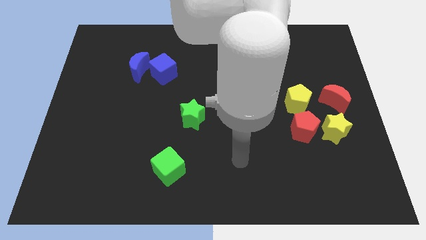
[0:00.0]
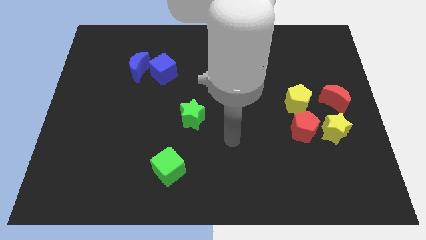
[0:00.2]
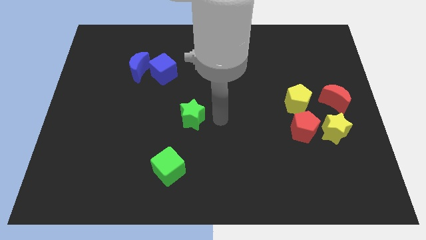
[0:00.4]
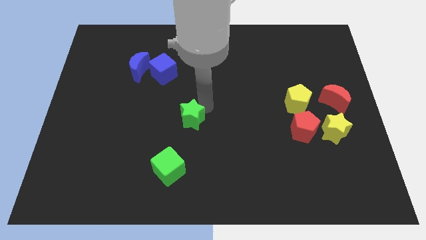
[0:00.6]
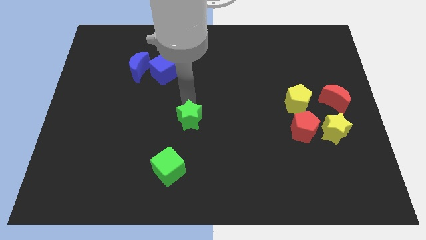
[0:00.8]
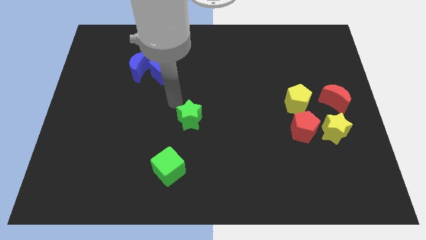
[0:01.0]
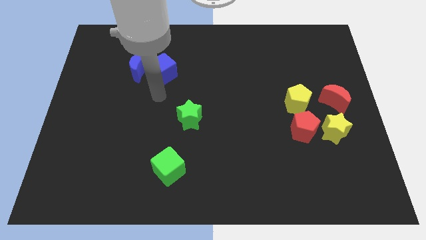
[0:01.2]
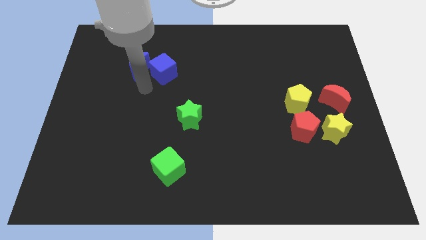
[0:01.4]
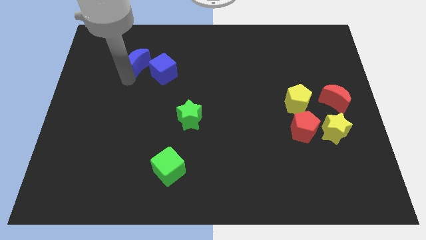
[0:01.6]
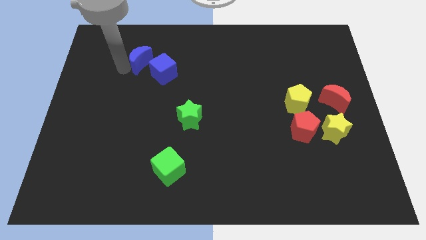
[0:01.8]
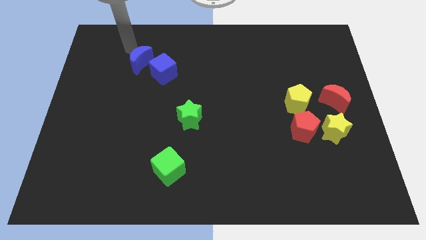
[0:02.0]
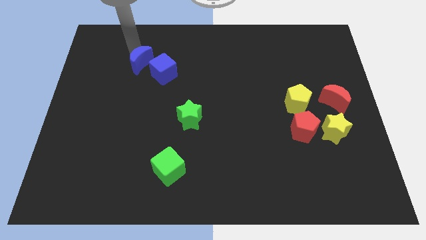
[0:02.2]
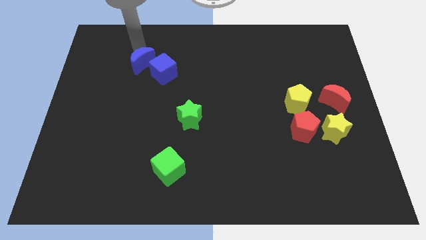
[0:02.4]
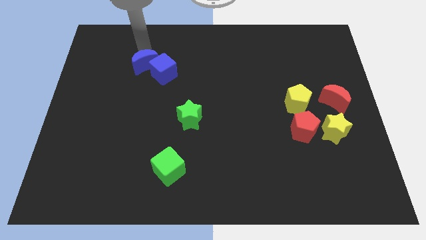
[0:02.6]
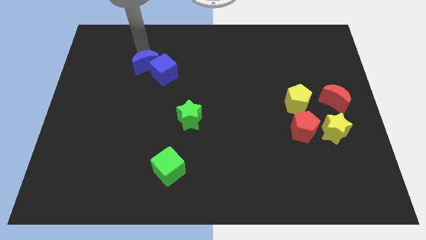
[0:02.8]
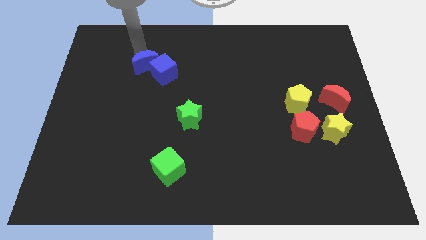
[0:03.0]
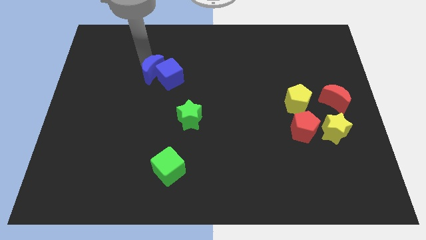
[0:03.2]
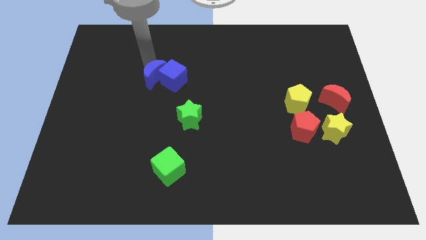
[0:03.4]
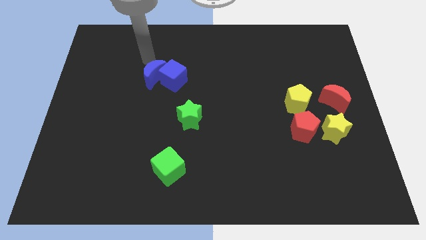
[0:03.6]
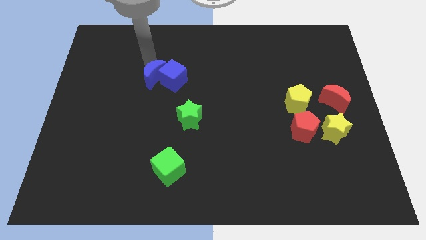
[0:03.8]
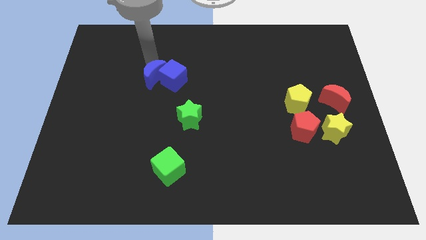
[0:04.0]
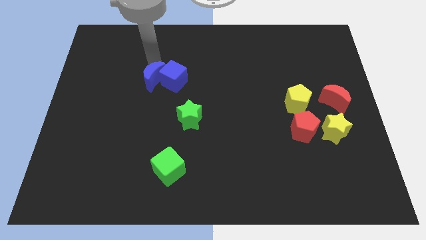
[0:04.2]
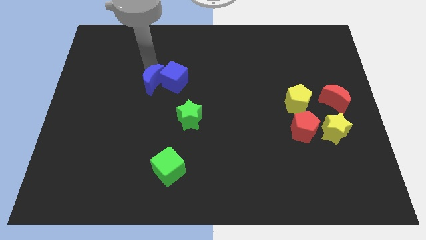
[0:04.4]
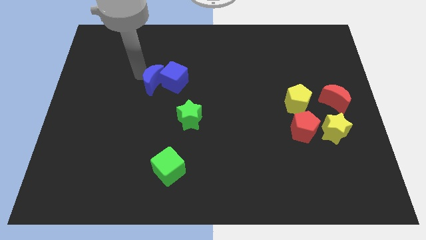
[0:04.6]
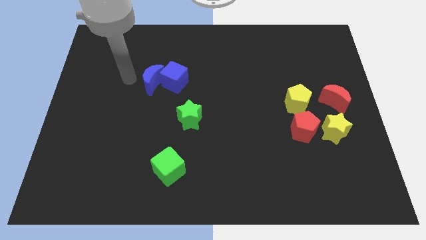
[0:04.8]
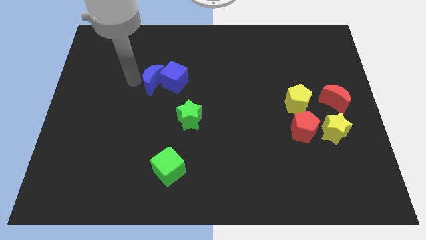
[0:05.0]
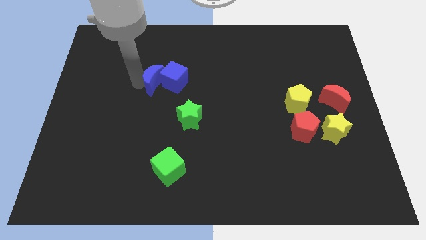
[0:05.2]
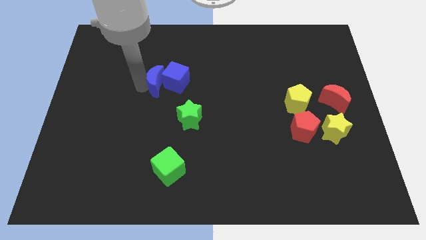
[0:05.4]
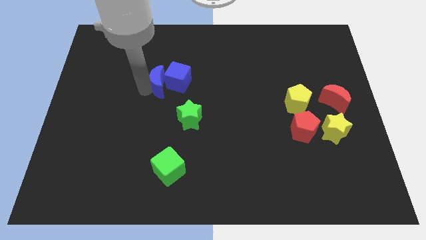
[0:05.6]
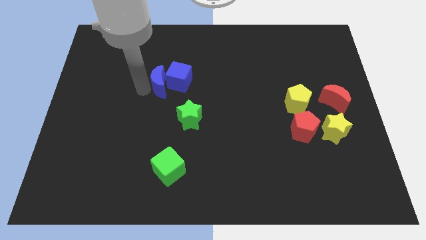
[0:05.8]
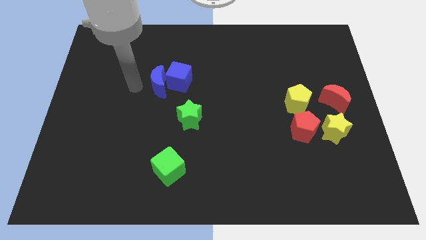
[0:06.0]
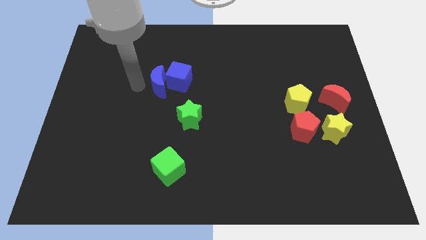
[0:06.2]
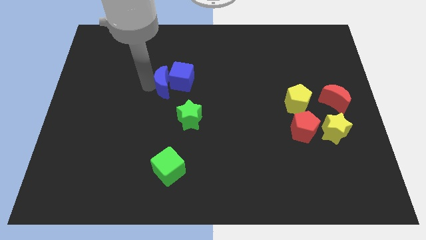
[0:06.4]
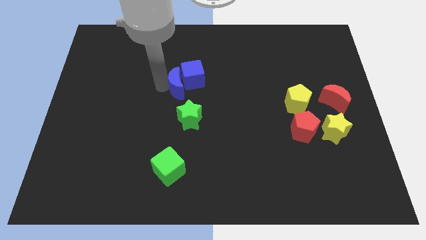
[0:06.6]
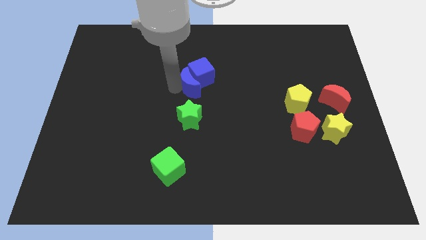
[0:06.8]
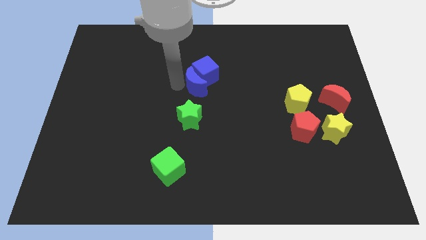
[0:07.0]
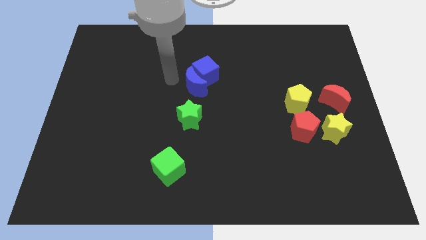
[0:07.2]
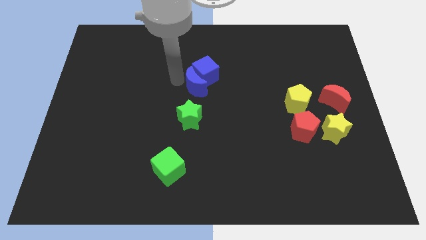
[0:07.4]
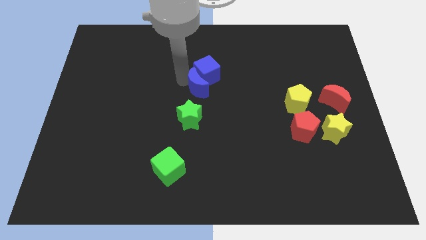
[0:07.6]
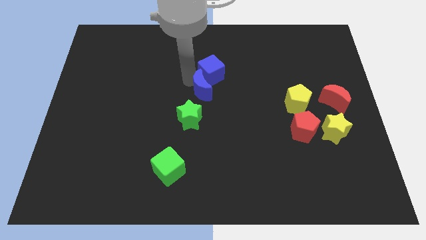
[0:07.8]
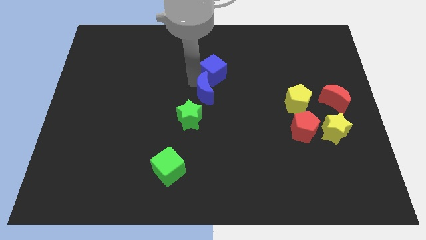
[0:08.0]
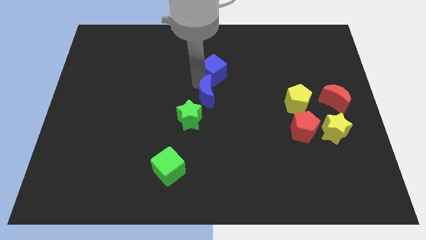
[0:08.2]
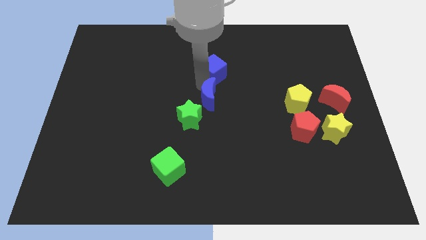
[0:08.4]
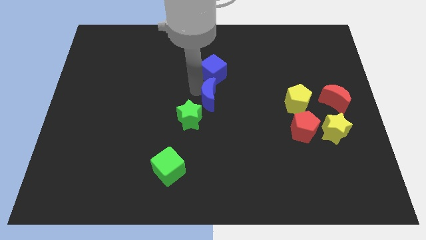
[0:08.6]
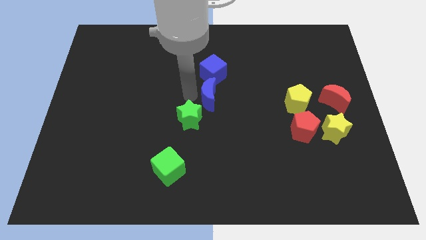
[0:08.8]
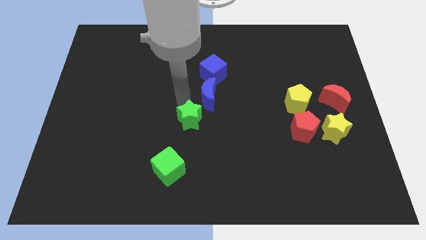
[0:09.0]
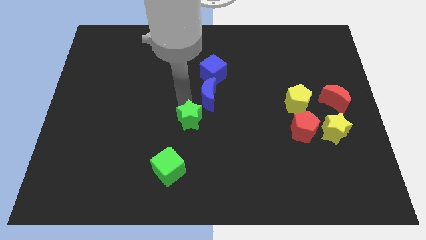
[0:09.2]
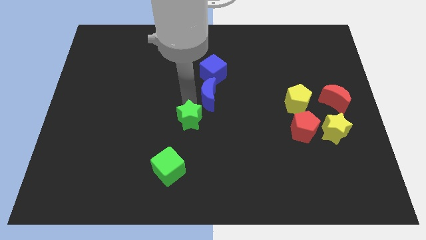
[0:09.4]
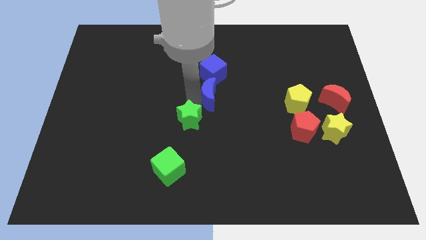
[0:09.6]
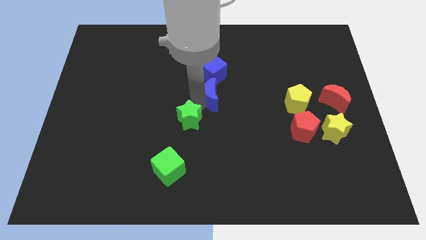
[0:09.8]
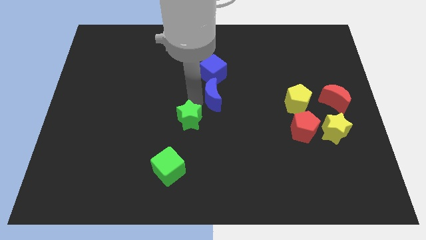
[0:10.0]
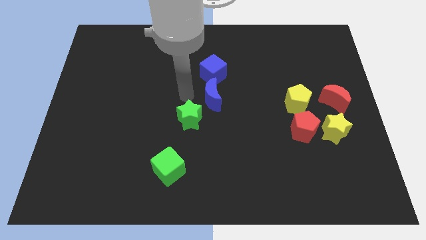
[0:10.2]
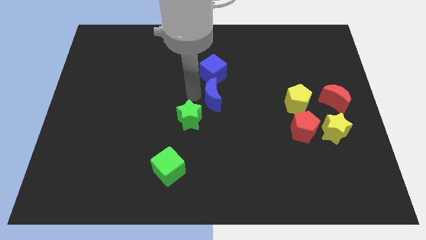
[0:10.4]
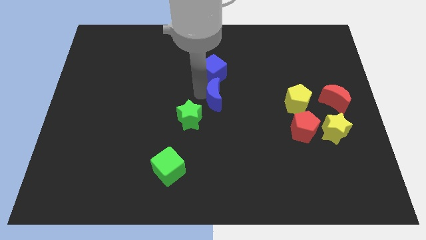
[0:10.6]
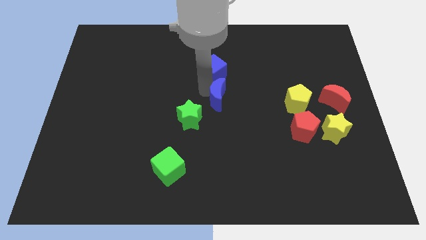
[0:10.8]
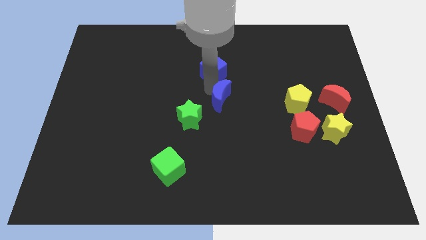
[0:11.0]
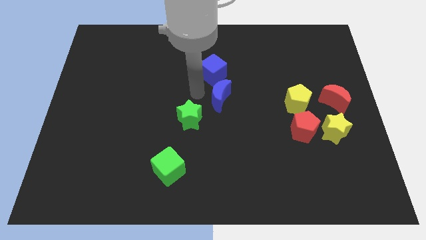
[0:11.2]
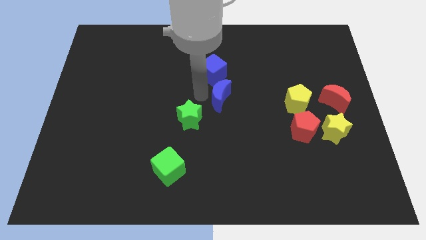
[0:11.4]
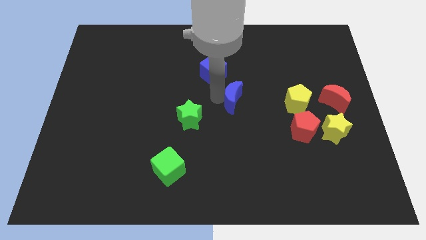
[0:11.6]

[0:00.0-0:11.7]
slide the blue moon left of the yellow pentagon
